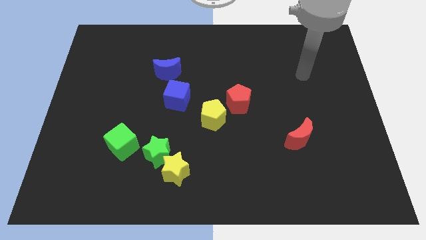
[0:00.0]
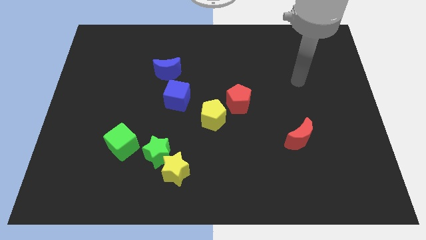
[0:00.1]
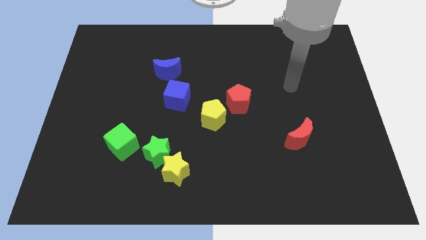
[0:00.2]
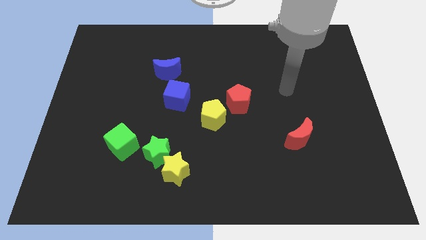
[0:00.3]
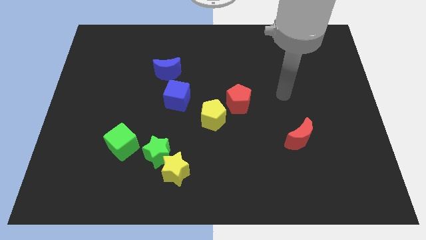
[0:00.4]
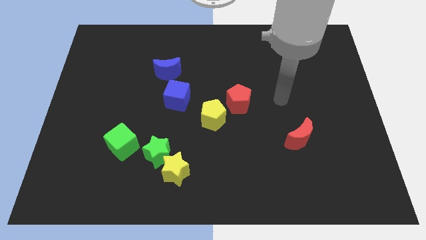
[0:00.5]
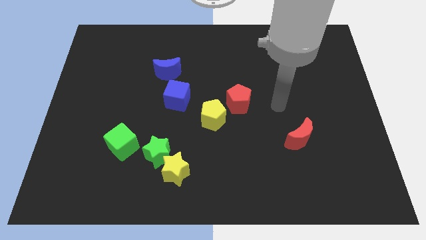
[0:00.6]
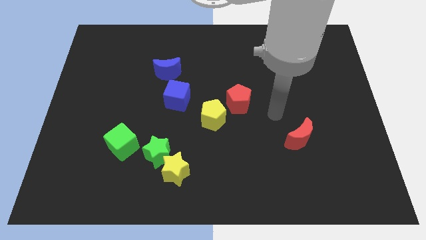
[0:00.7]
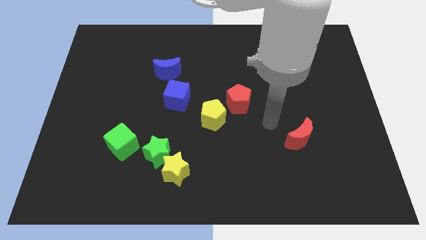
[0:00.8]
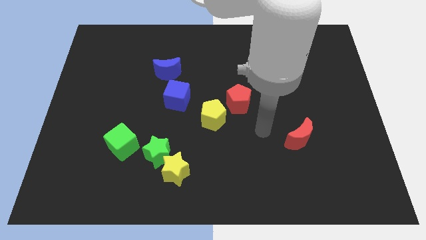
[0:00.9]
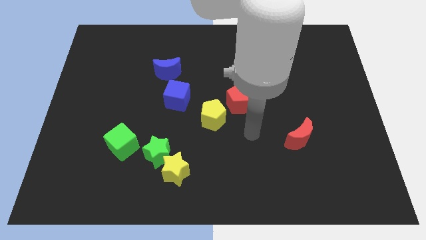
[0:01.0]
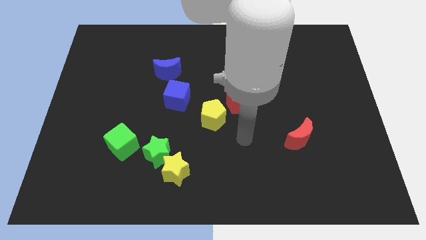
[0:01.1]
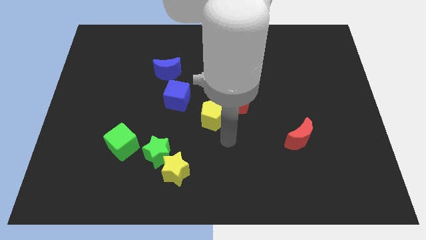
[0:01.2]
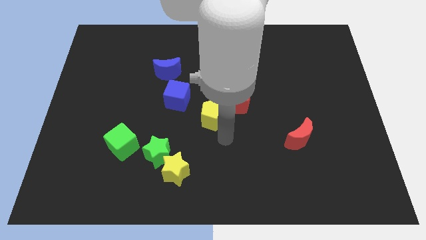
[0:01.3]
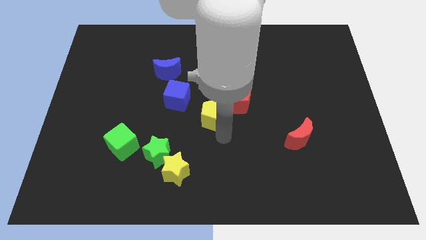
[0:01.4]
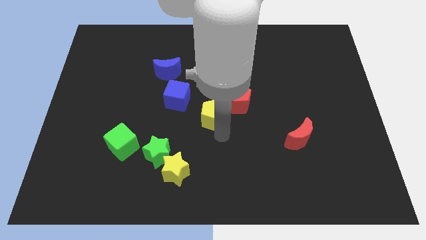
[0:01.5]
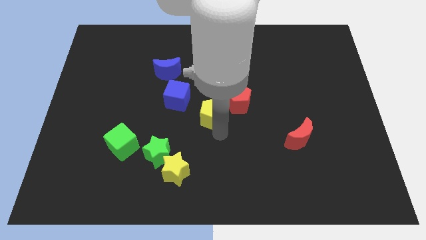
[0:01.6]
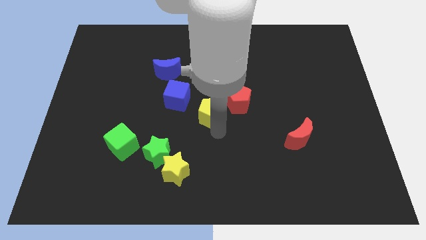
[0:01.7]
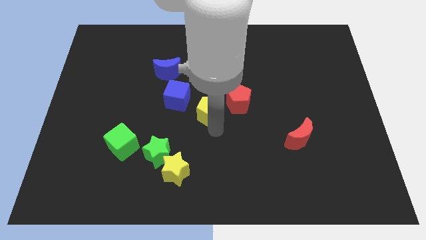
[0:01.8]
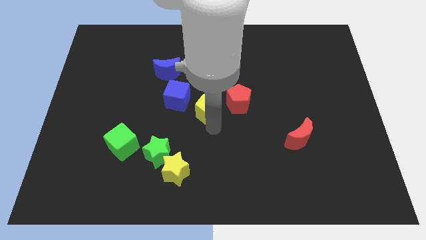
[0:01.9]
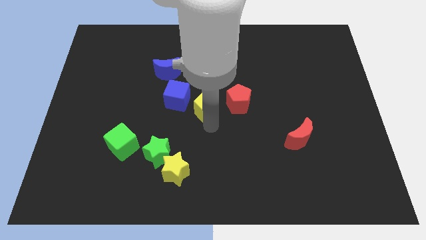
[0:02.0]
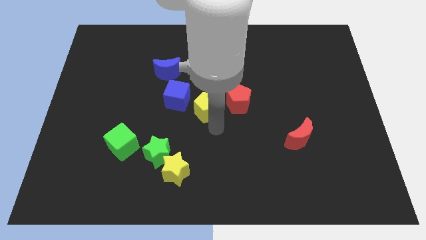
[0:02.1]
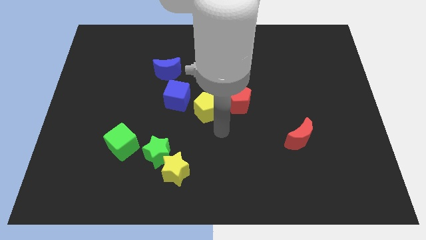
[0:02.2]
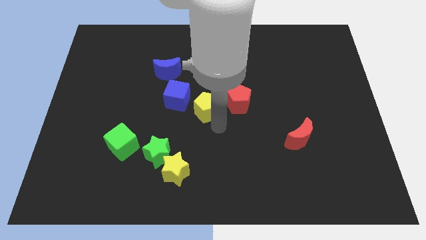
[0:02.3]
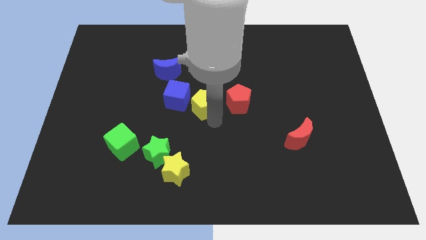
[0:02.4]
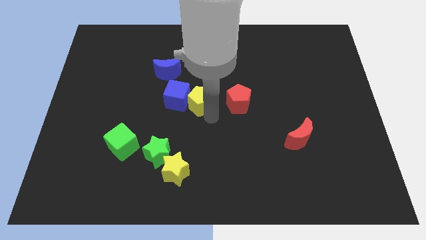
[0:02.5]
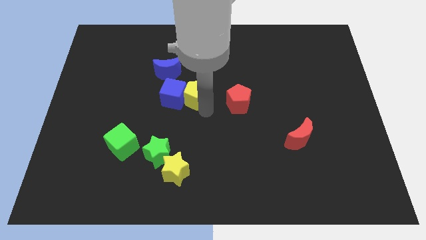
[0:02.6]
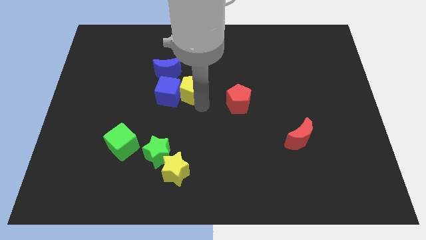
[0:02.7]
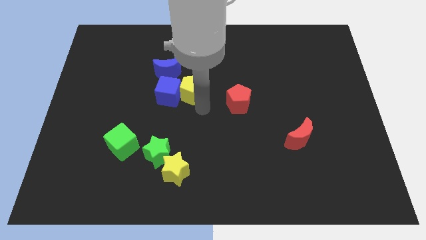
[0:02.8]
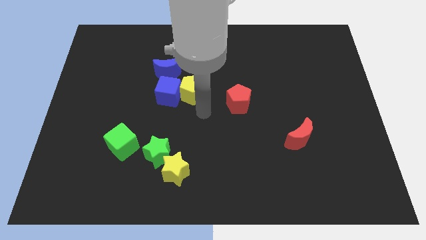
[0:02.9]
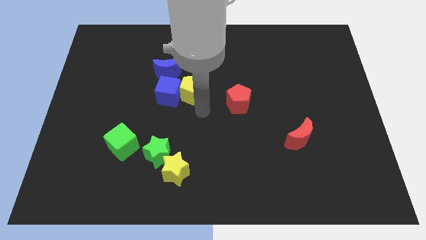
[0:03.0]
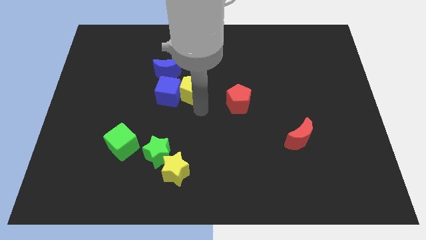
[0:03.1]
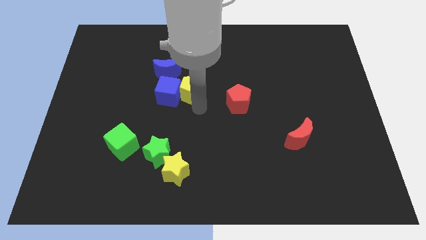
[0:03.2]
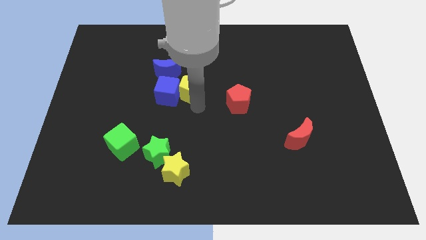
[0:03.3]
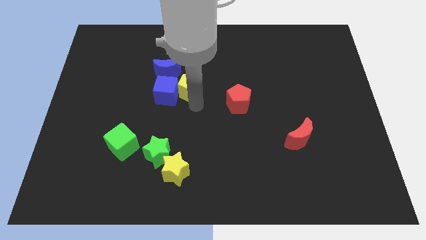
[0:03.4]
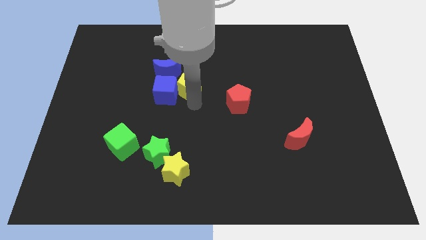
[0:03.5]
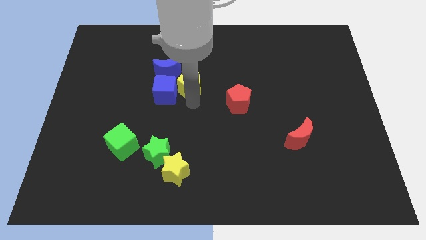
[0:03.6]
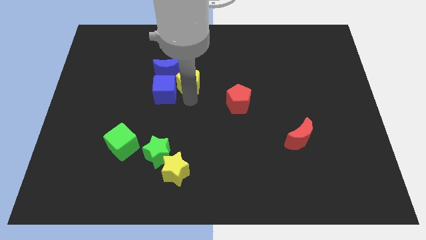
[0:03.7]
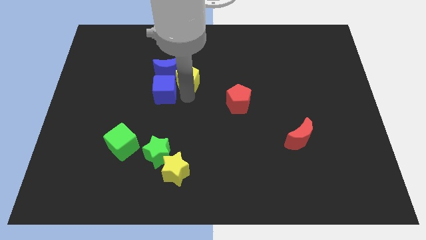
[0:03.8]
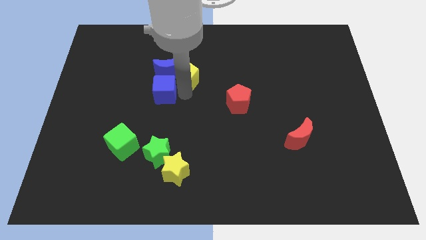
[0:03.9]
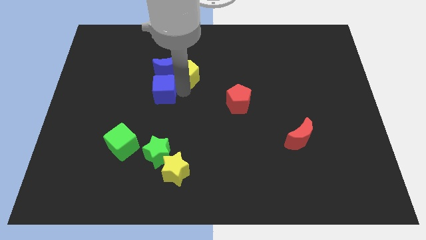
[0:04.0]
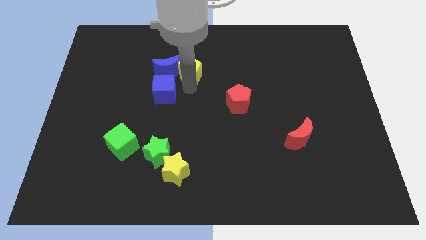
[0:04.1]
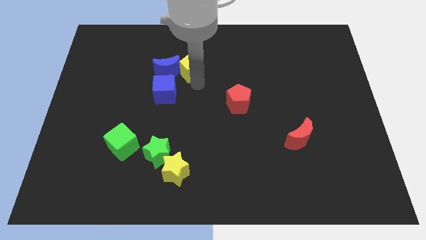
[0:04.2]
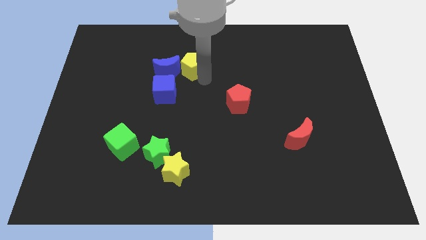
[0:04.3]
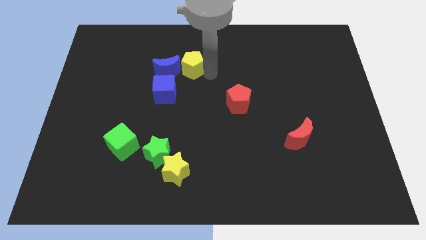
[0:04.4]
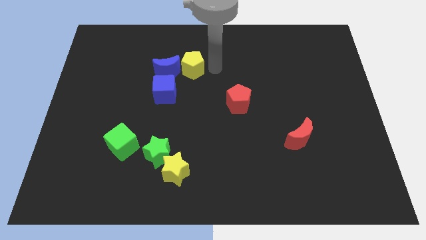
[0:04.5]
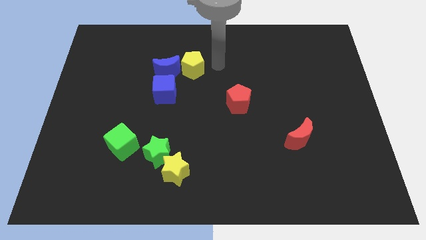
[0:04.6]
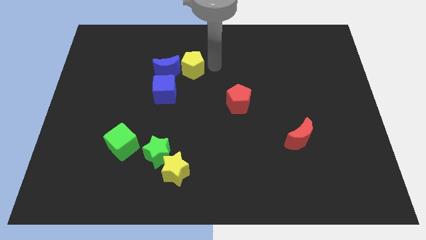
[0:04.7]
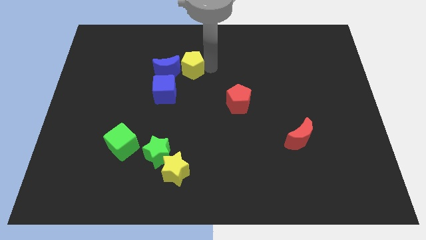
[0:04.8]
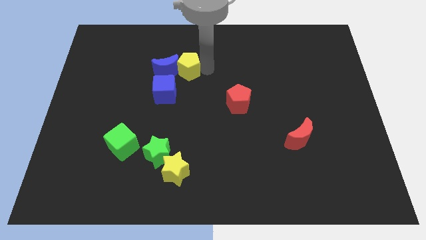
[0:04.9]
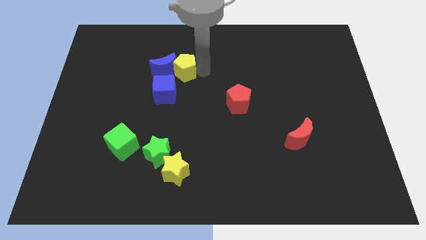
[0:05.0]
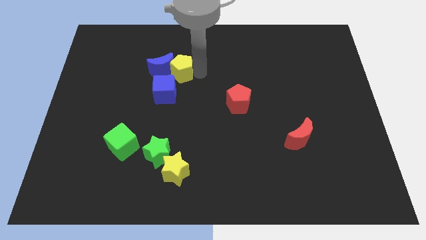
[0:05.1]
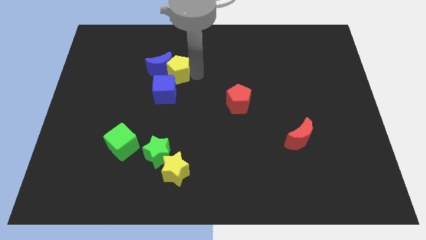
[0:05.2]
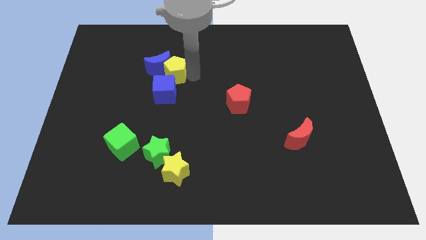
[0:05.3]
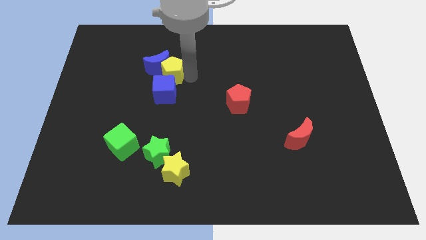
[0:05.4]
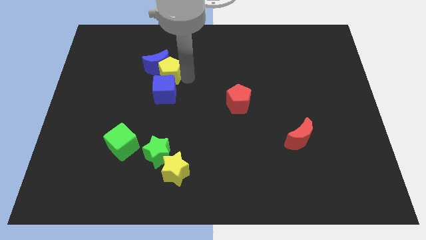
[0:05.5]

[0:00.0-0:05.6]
slide the yellow pentagon to the top left side of the blue cube

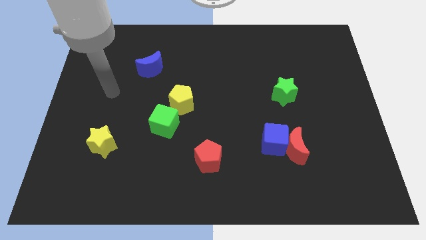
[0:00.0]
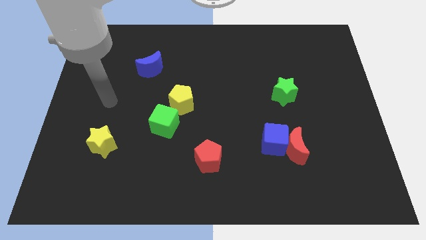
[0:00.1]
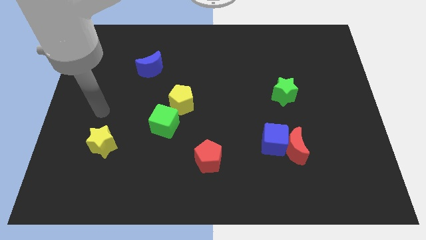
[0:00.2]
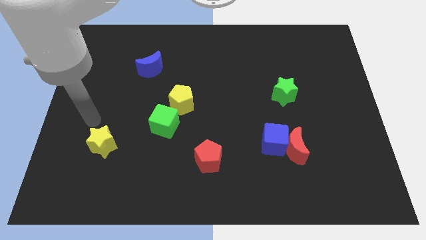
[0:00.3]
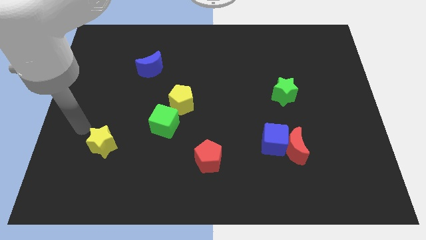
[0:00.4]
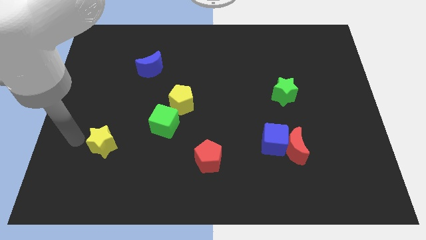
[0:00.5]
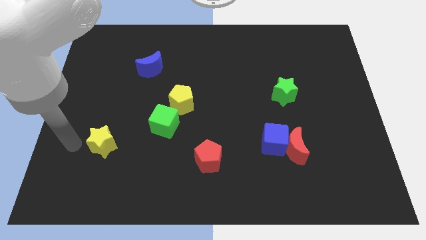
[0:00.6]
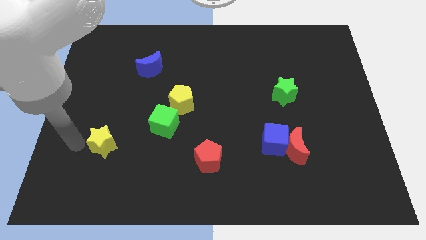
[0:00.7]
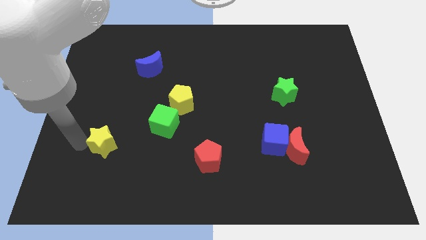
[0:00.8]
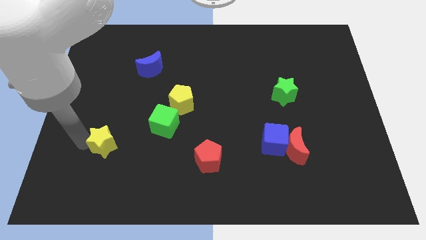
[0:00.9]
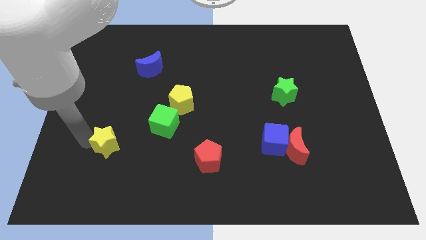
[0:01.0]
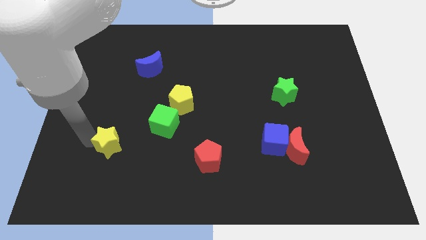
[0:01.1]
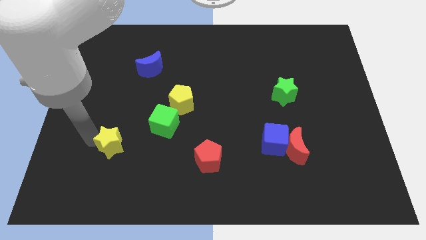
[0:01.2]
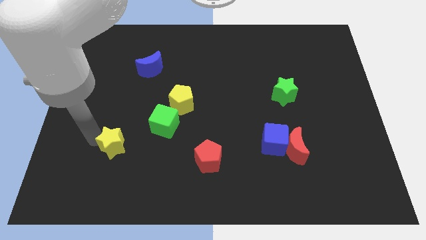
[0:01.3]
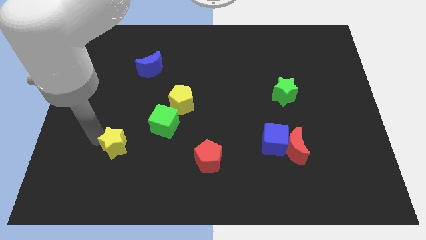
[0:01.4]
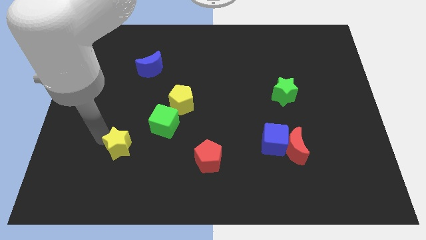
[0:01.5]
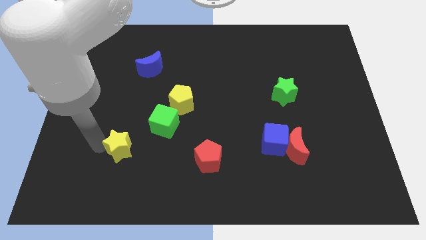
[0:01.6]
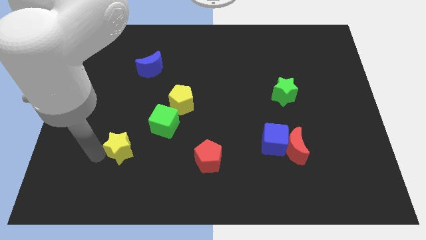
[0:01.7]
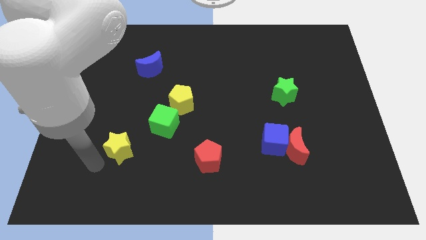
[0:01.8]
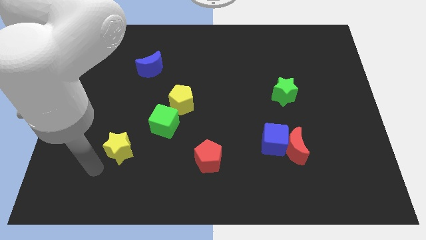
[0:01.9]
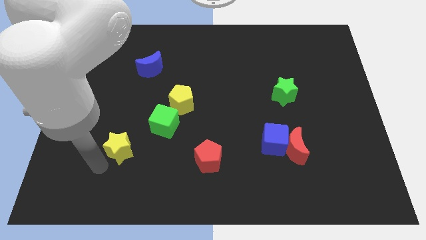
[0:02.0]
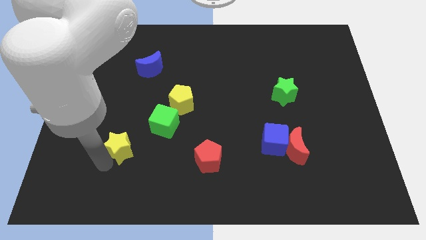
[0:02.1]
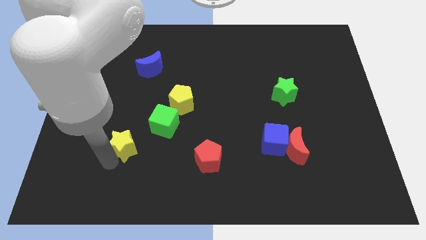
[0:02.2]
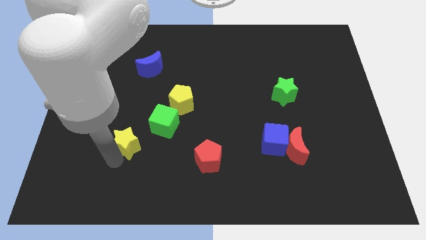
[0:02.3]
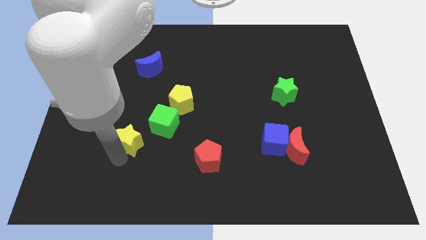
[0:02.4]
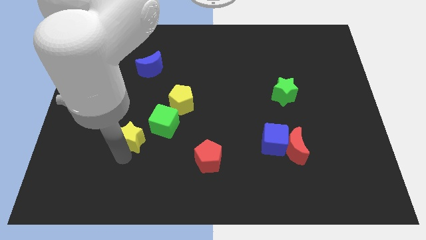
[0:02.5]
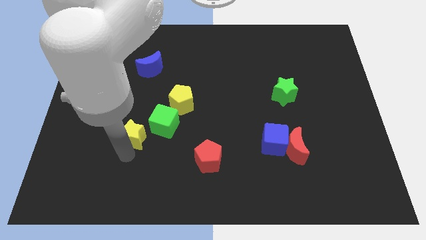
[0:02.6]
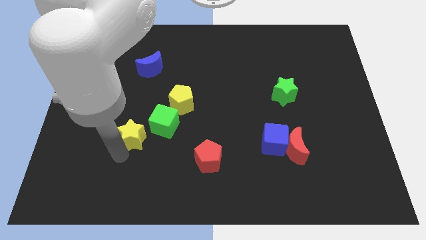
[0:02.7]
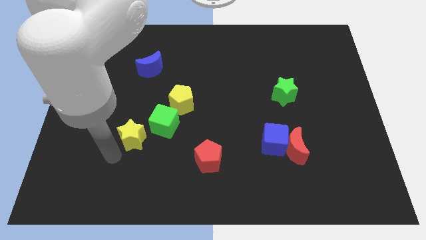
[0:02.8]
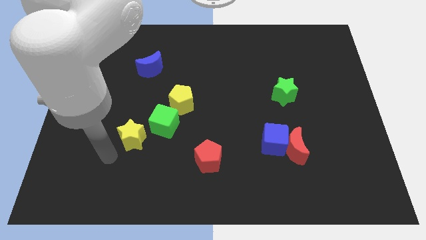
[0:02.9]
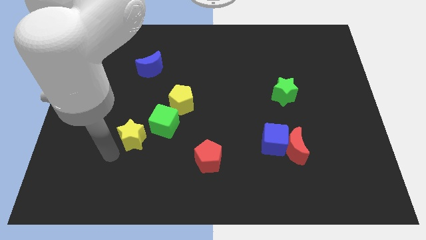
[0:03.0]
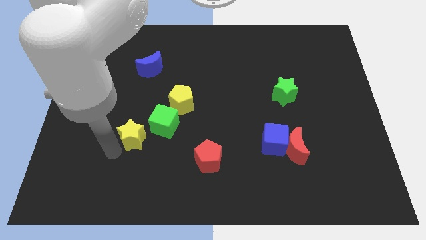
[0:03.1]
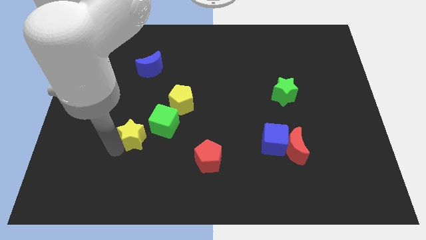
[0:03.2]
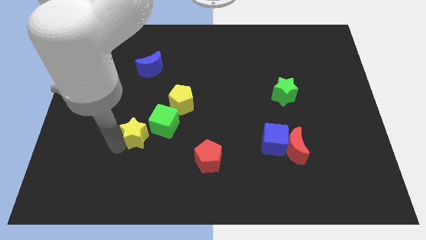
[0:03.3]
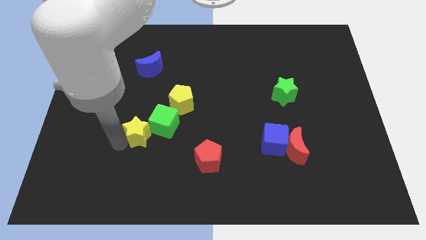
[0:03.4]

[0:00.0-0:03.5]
slide the yellow star to the bottom left side of the yellow pentagon
